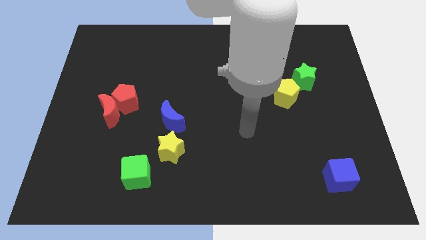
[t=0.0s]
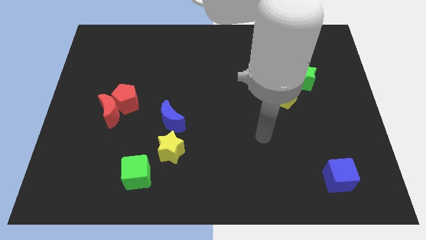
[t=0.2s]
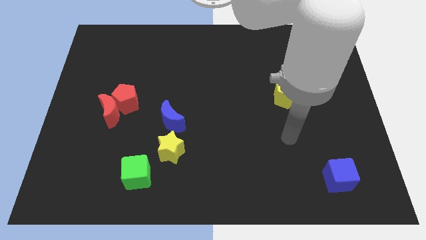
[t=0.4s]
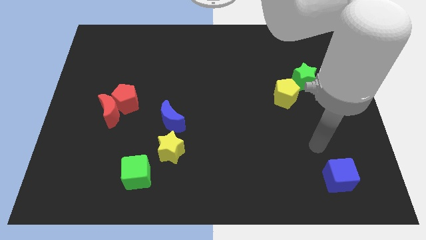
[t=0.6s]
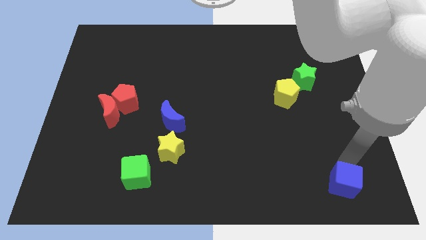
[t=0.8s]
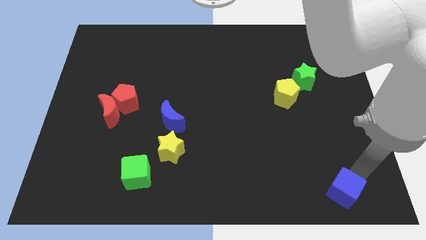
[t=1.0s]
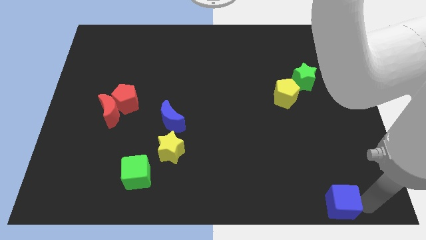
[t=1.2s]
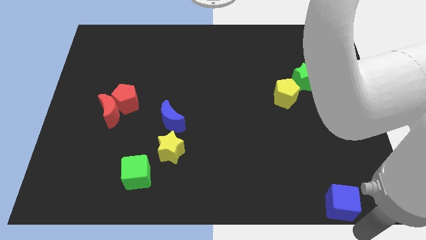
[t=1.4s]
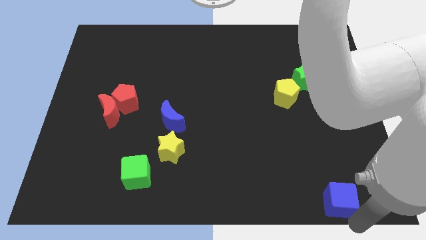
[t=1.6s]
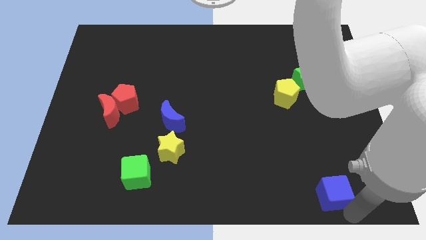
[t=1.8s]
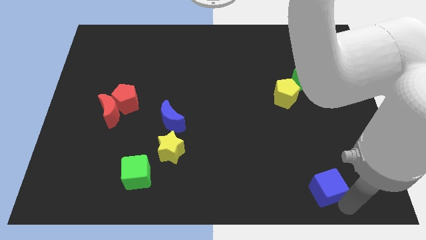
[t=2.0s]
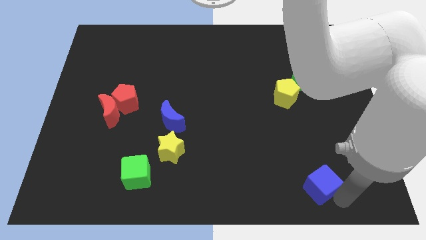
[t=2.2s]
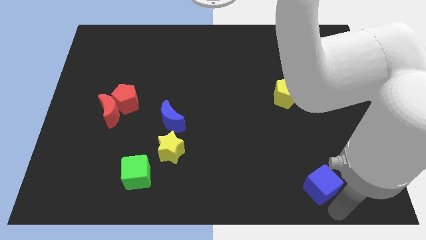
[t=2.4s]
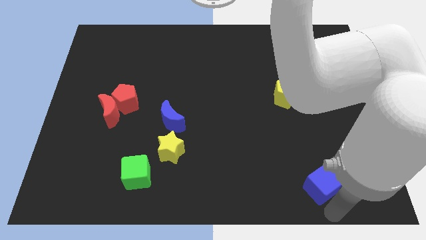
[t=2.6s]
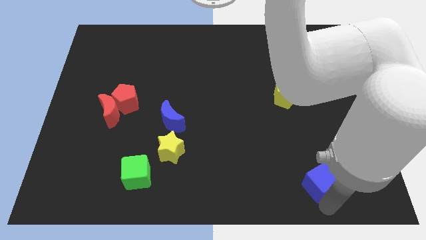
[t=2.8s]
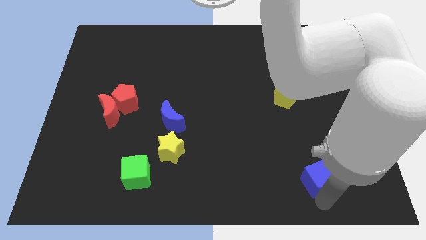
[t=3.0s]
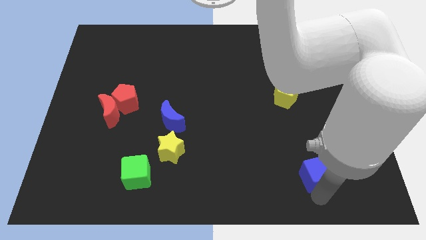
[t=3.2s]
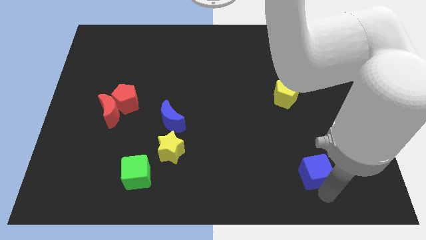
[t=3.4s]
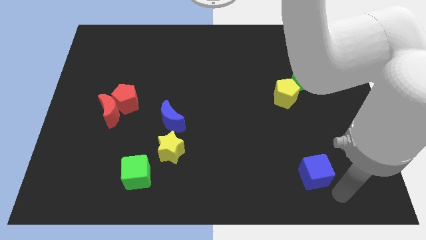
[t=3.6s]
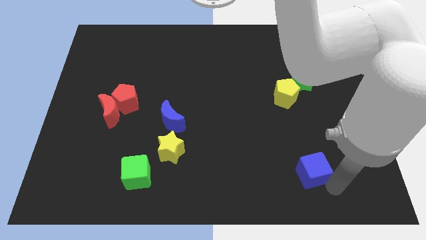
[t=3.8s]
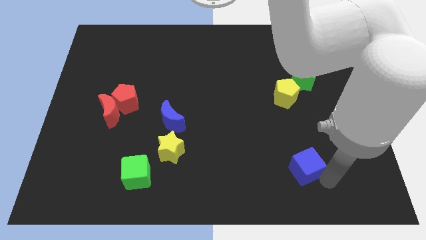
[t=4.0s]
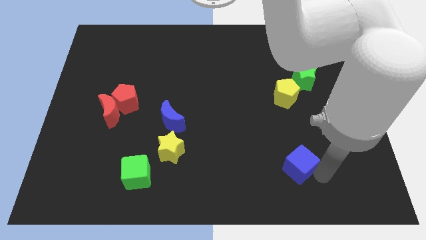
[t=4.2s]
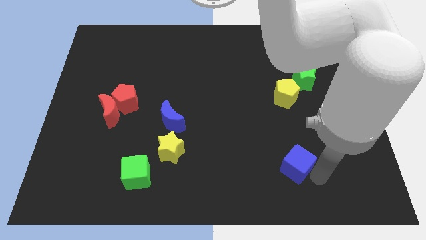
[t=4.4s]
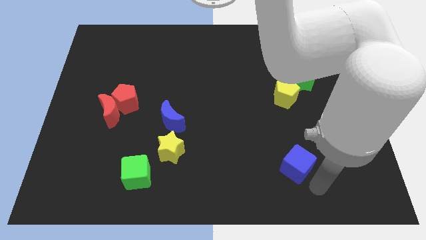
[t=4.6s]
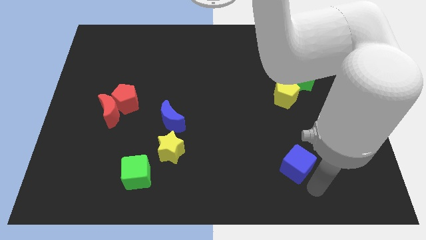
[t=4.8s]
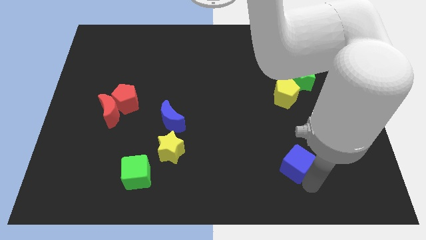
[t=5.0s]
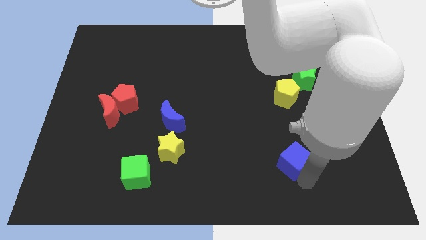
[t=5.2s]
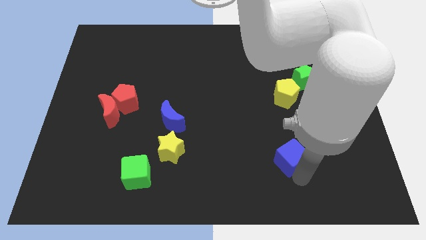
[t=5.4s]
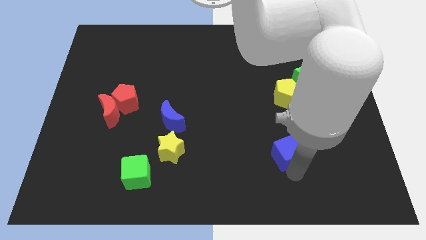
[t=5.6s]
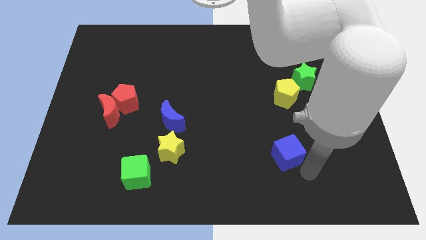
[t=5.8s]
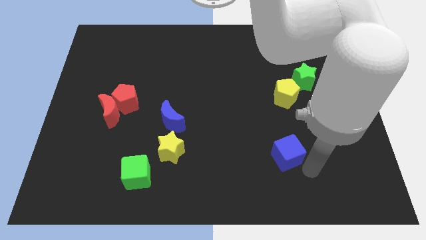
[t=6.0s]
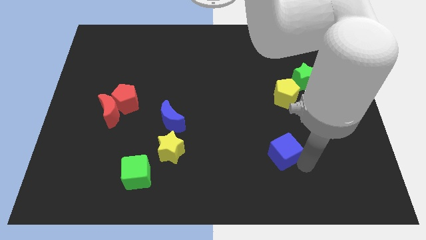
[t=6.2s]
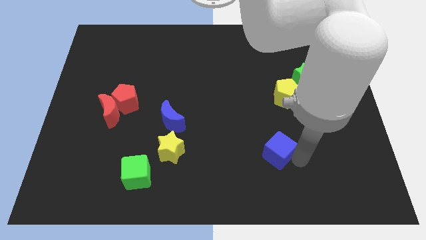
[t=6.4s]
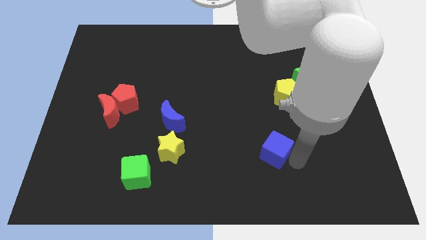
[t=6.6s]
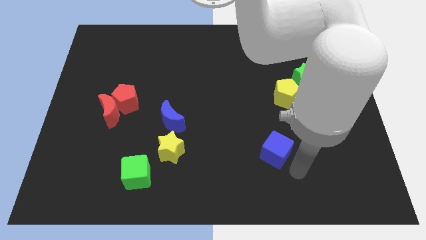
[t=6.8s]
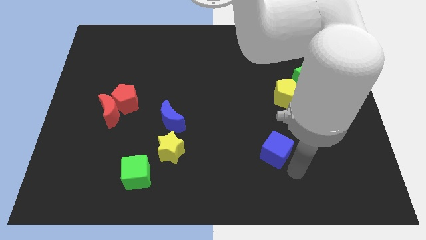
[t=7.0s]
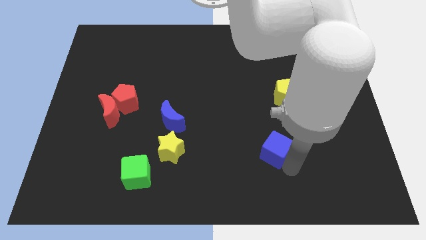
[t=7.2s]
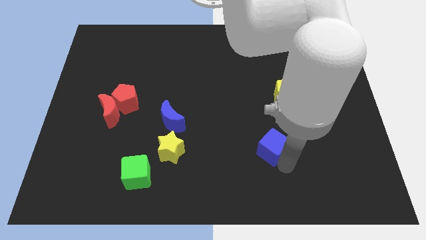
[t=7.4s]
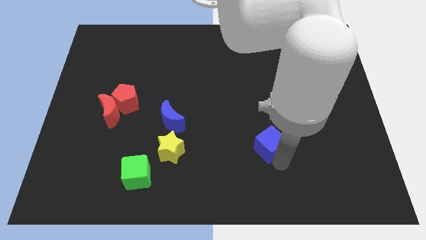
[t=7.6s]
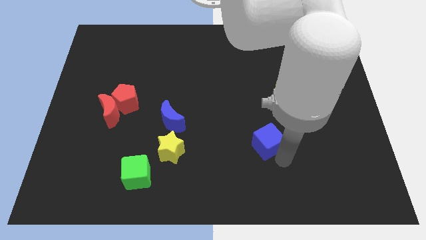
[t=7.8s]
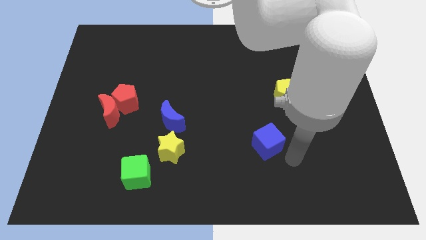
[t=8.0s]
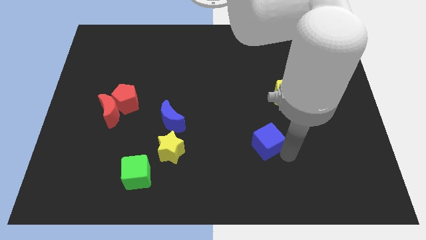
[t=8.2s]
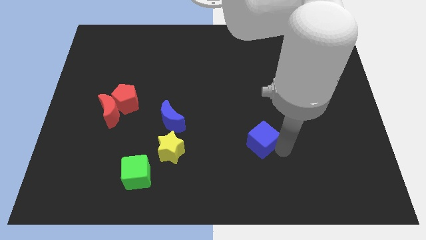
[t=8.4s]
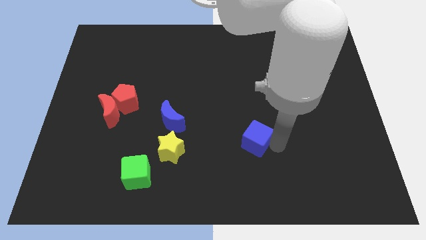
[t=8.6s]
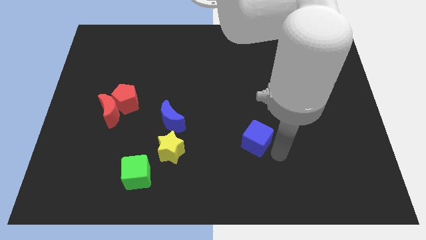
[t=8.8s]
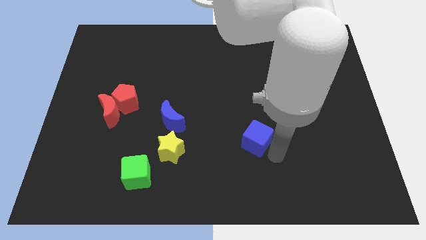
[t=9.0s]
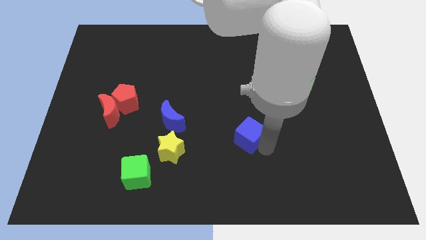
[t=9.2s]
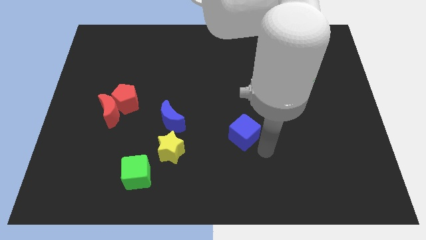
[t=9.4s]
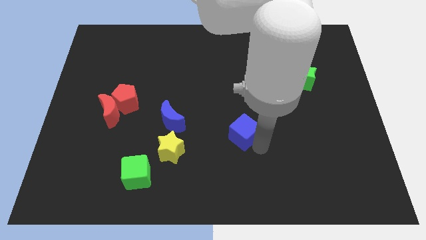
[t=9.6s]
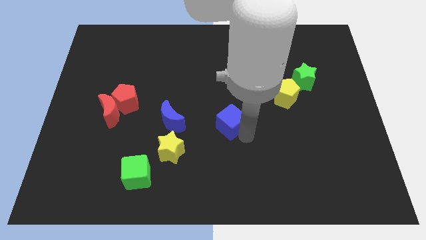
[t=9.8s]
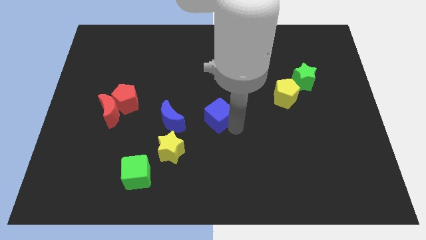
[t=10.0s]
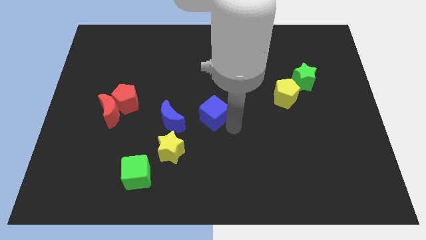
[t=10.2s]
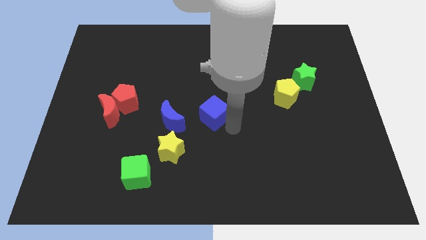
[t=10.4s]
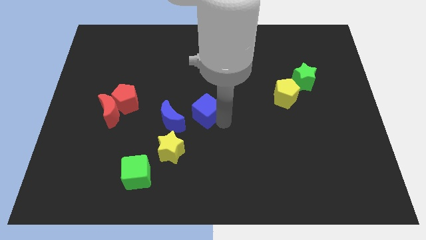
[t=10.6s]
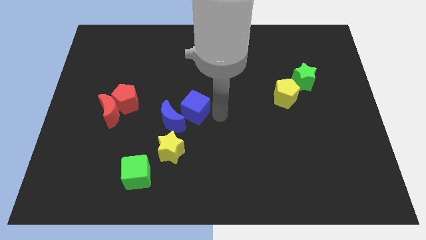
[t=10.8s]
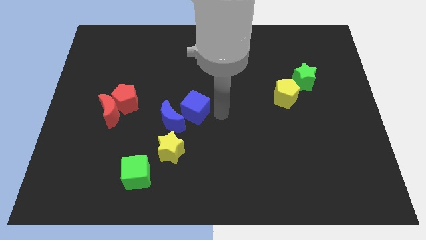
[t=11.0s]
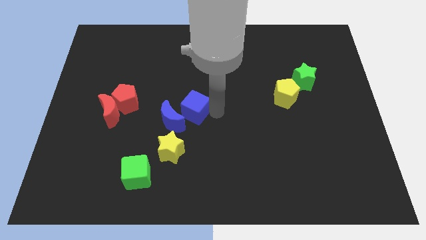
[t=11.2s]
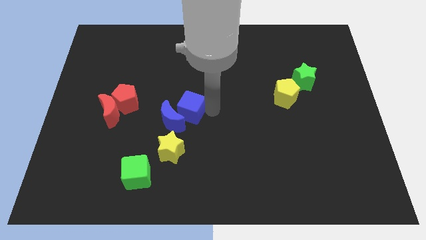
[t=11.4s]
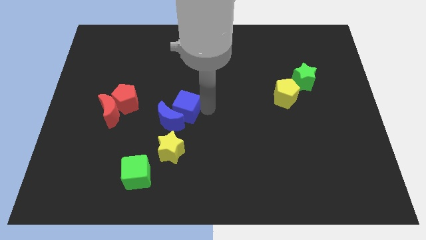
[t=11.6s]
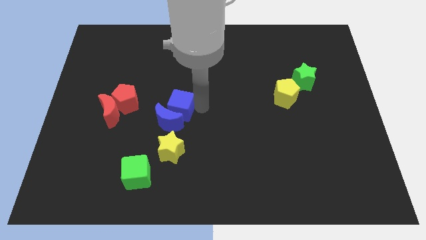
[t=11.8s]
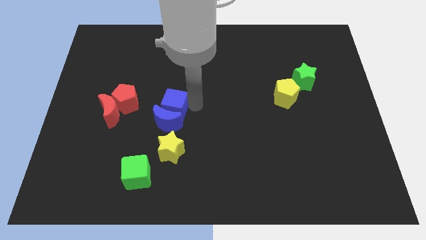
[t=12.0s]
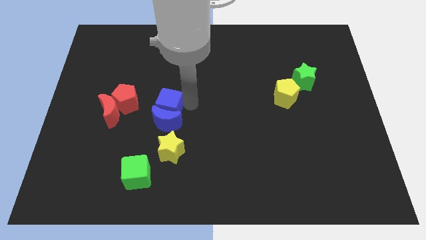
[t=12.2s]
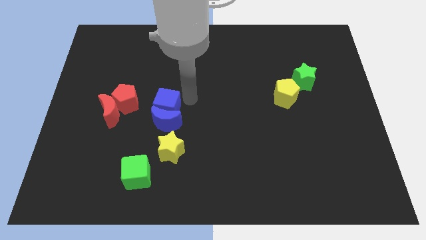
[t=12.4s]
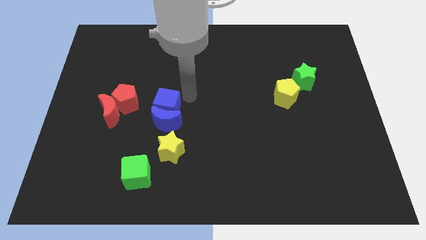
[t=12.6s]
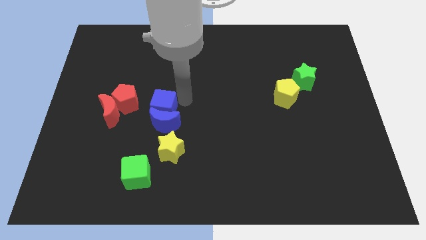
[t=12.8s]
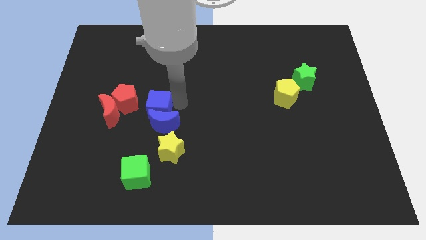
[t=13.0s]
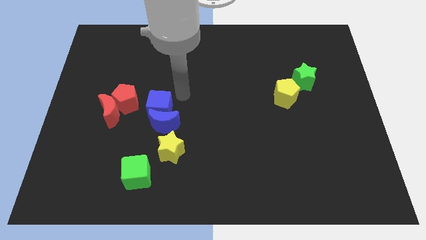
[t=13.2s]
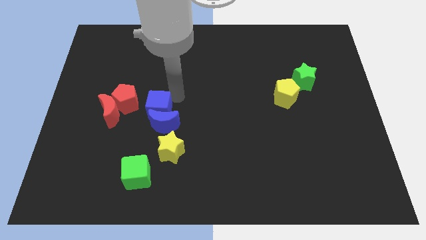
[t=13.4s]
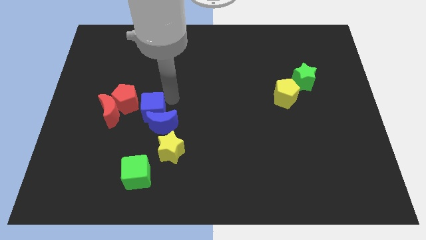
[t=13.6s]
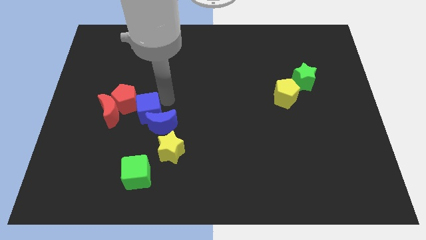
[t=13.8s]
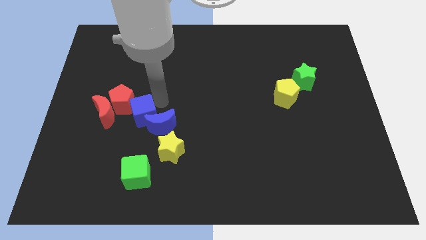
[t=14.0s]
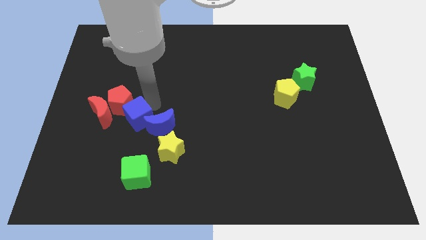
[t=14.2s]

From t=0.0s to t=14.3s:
put the blue cube below the red pentagon
